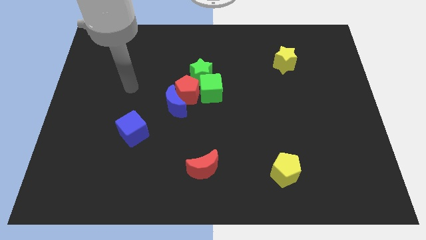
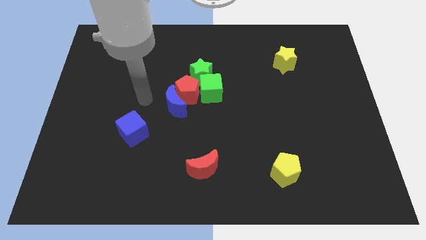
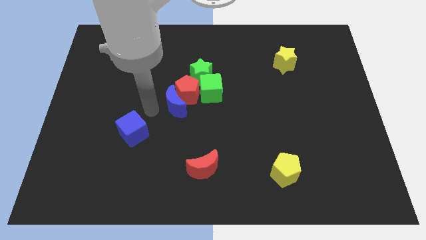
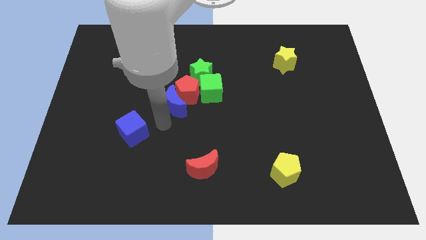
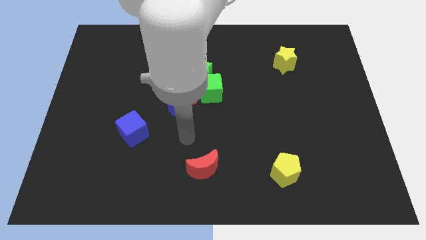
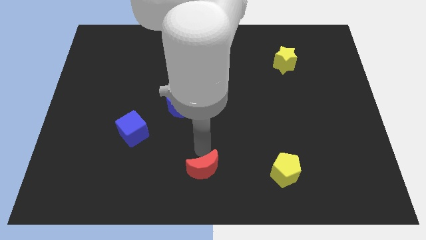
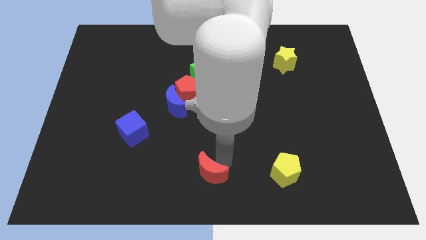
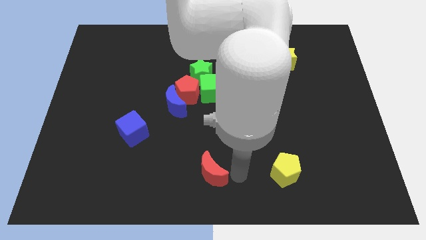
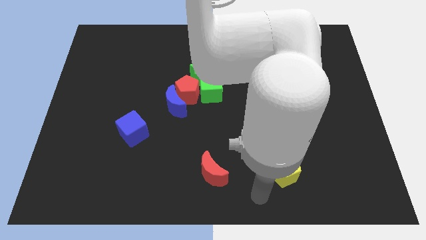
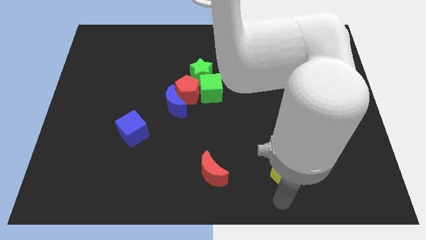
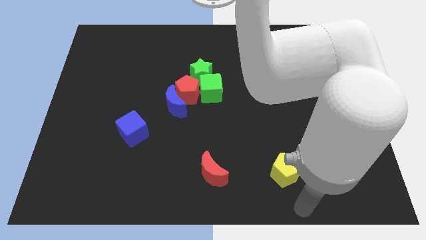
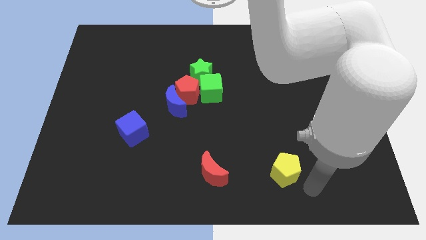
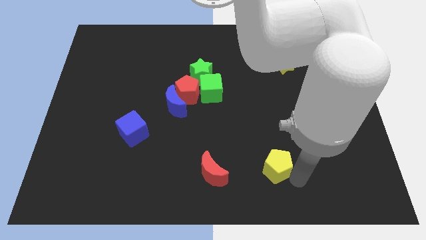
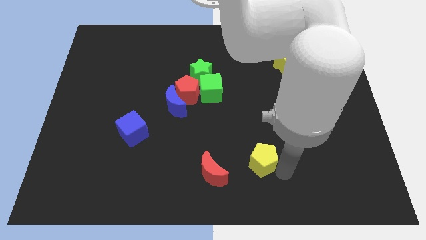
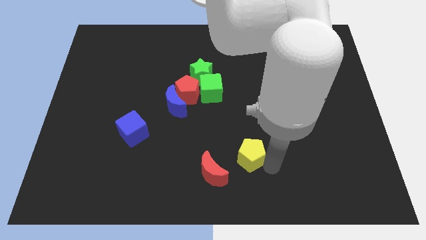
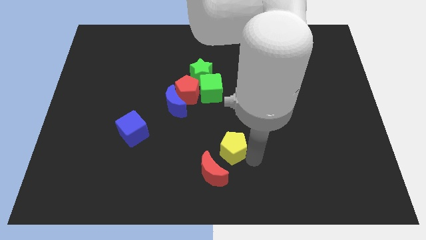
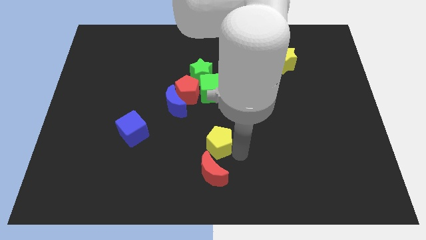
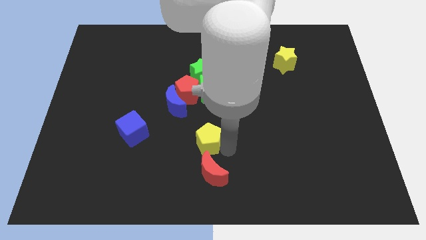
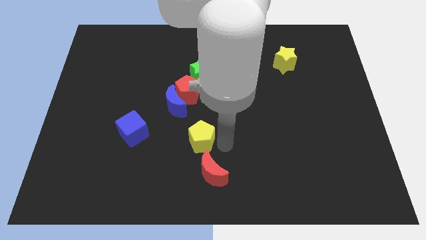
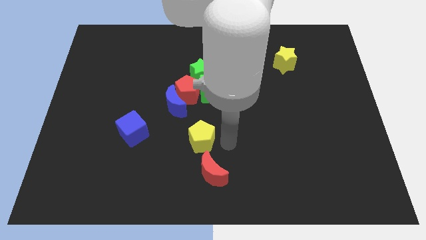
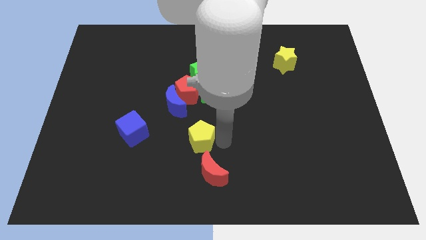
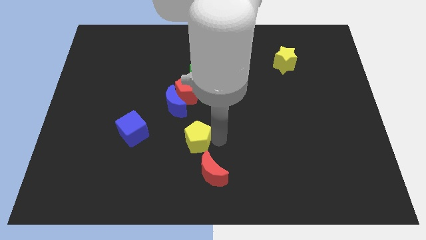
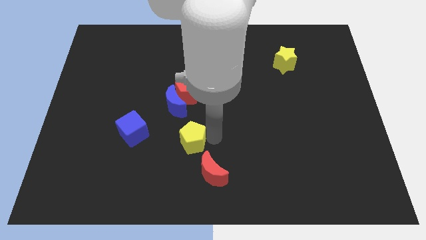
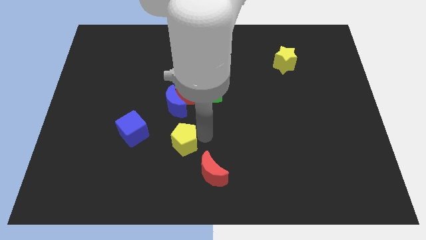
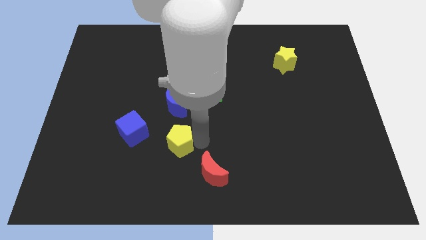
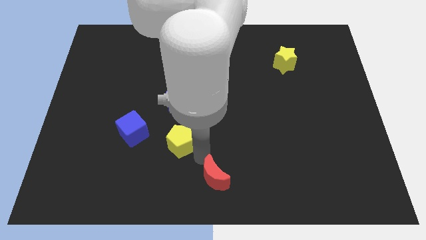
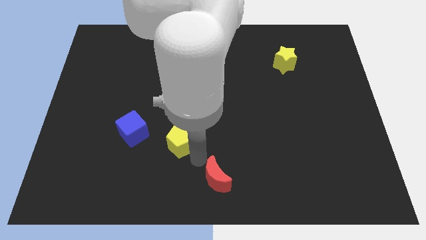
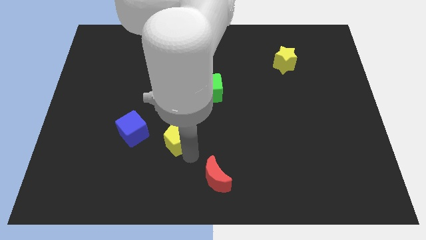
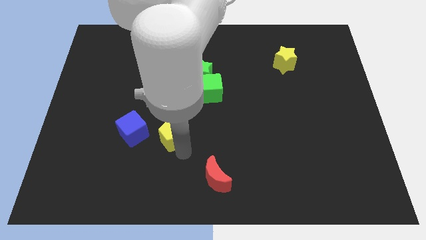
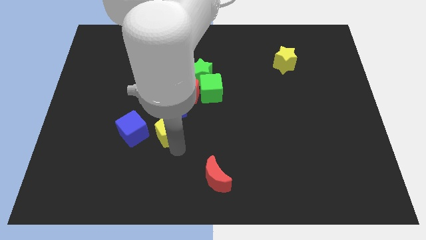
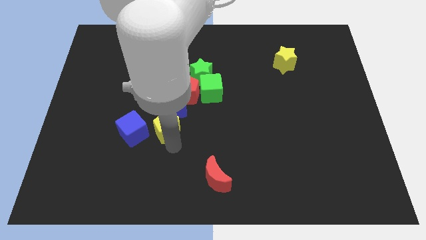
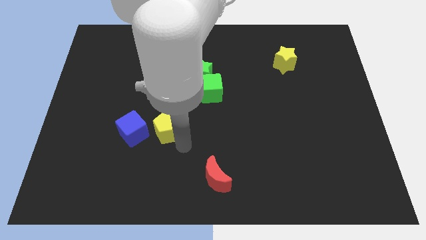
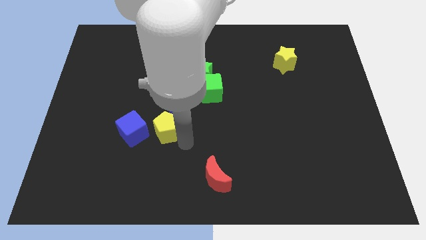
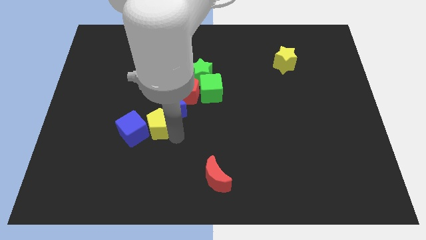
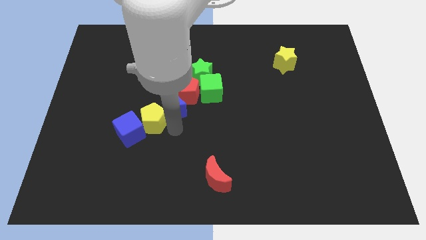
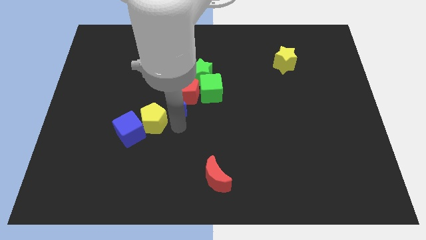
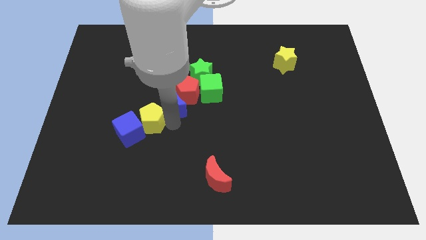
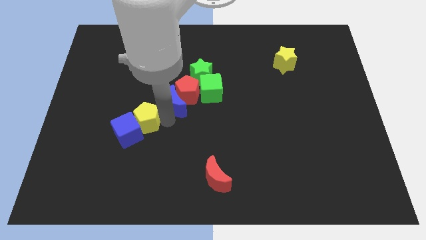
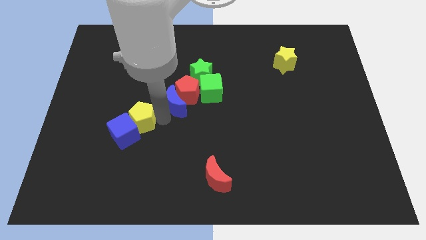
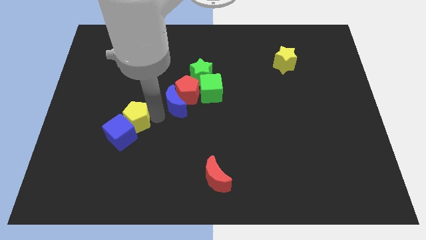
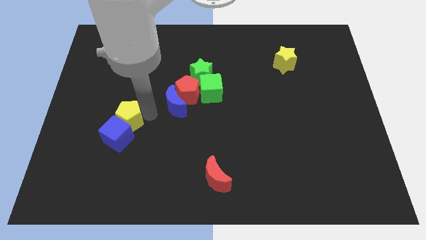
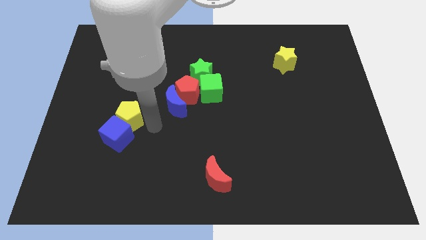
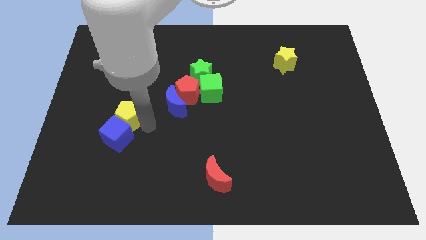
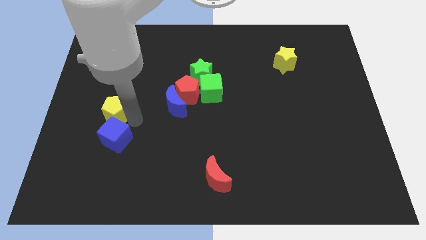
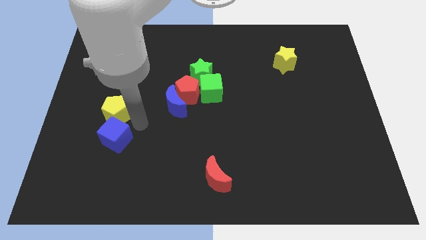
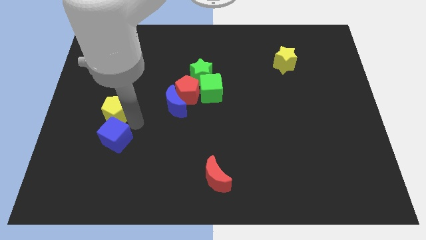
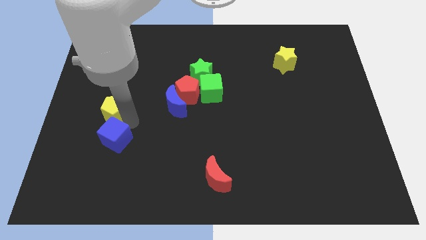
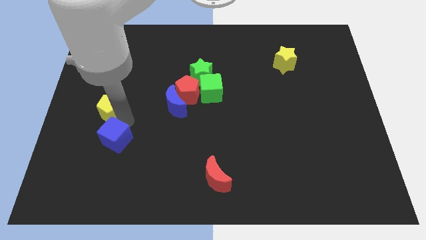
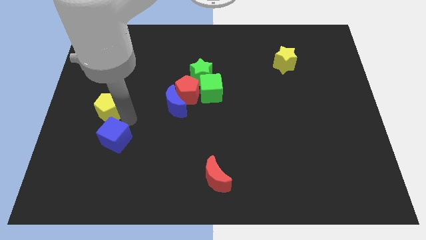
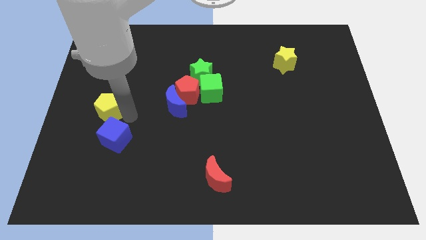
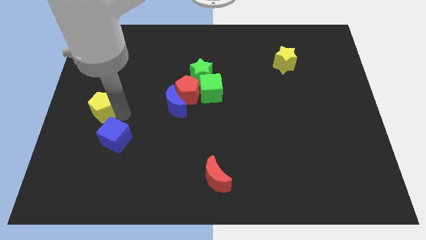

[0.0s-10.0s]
move the yellow pentagon to the center left

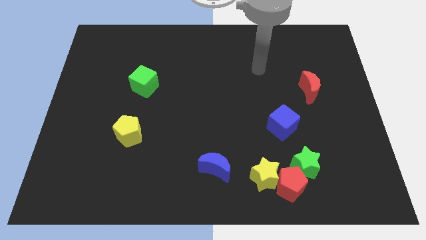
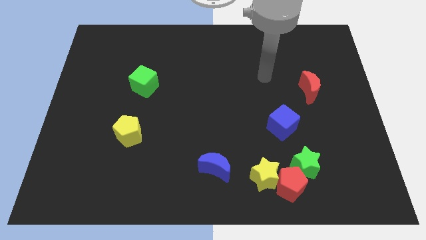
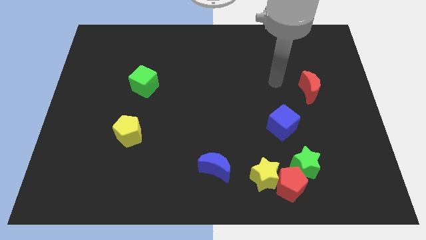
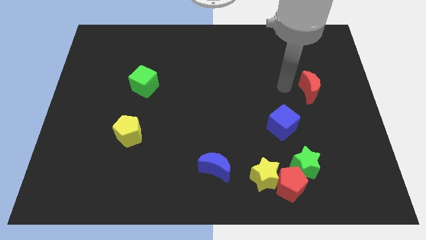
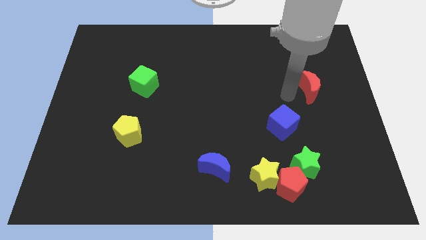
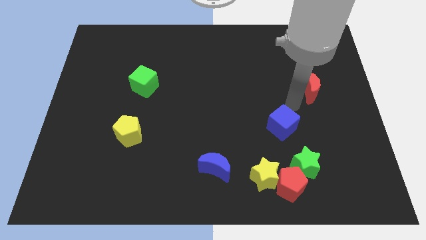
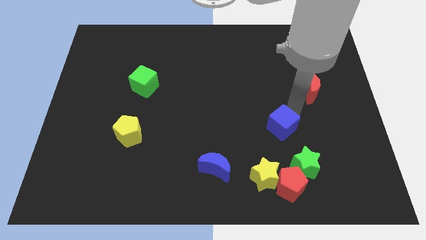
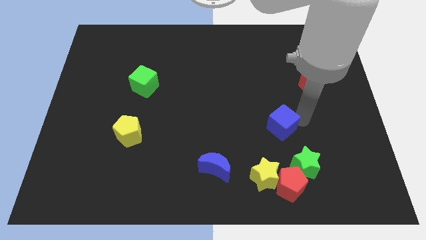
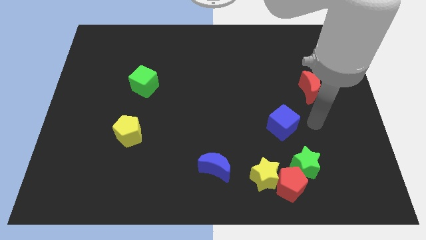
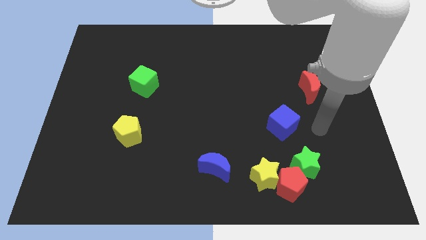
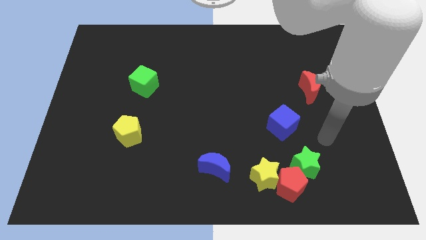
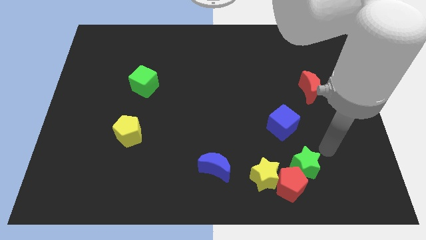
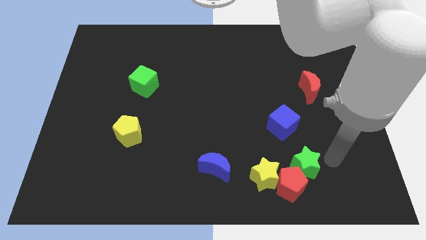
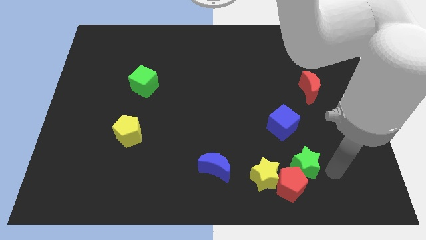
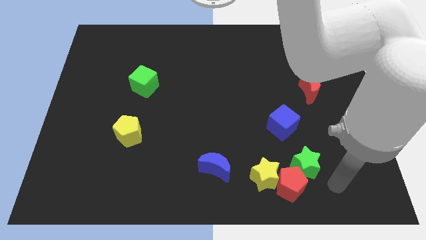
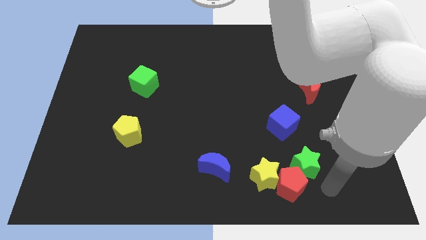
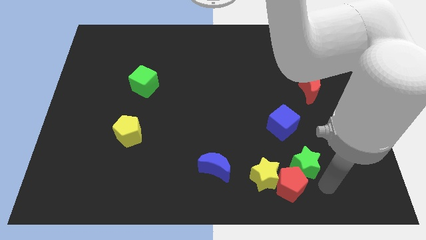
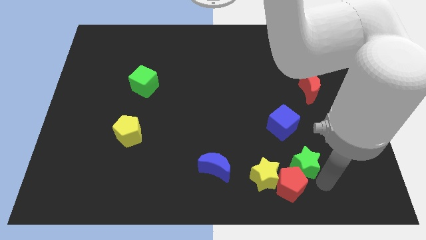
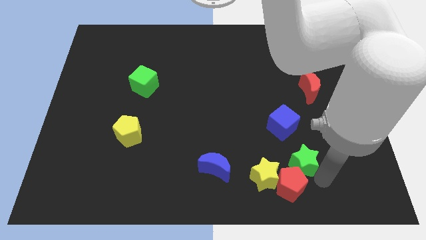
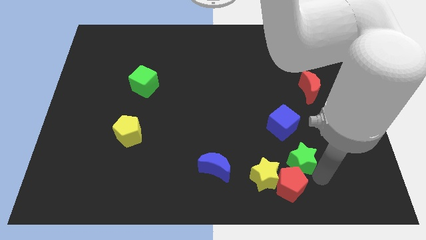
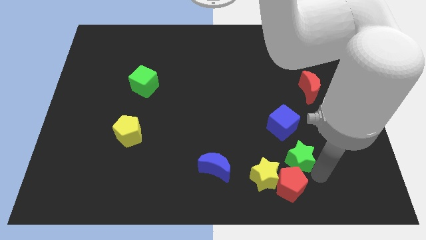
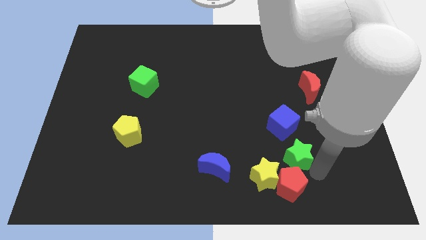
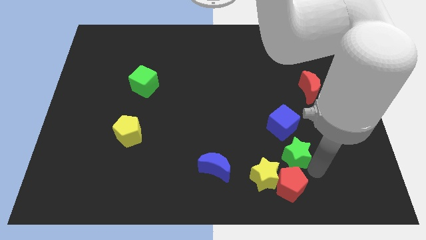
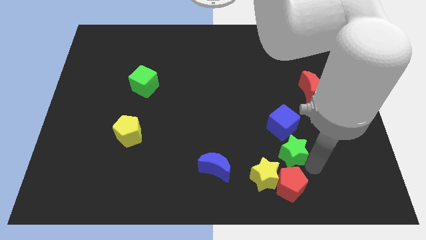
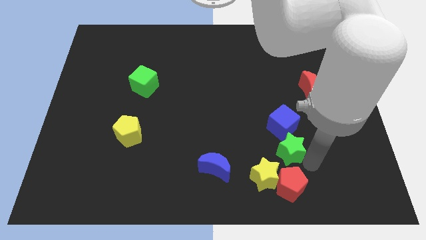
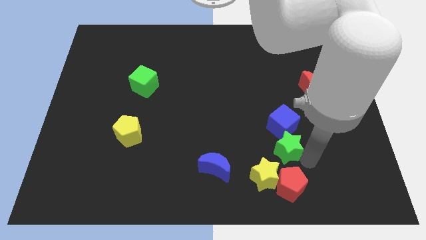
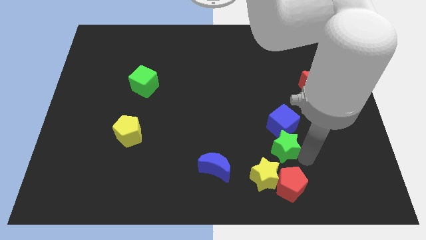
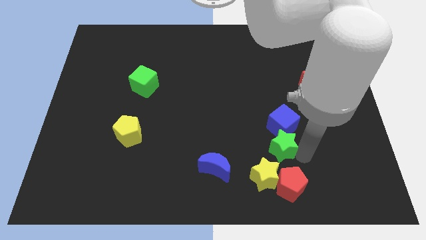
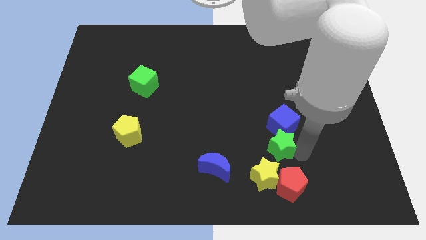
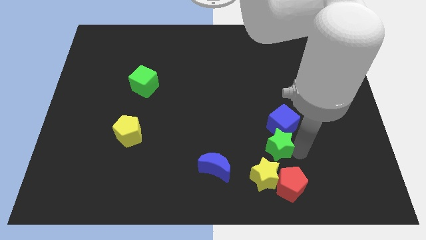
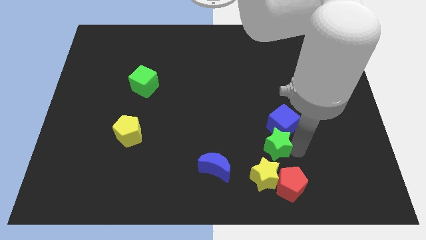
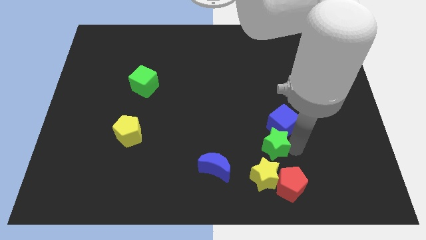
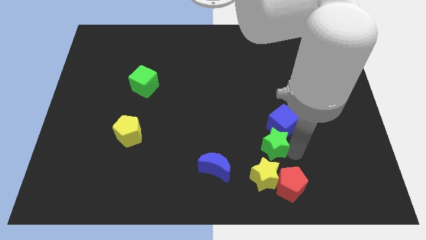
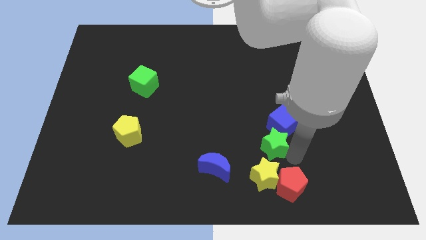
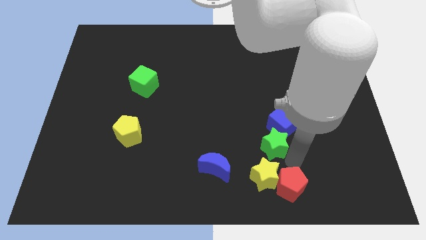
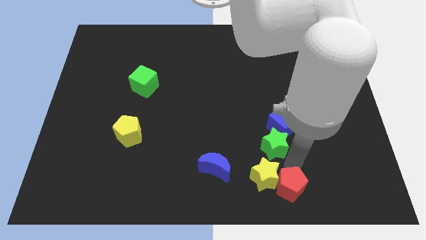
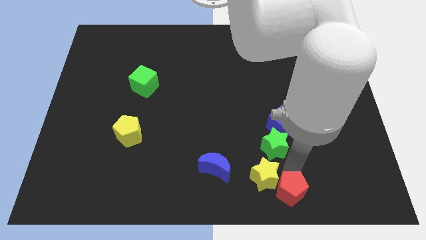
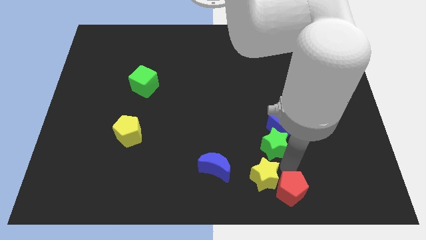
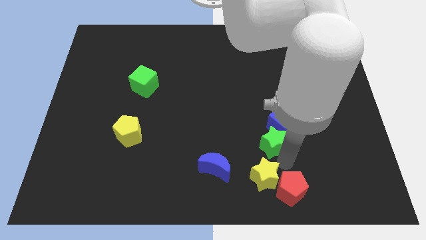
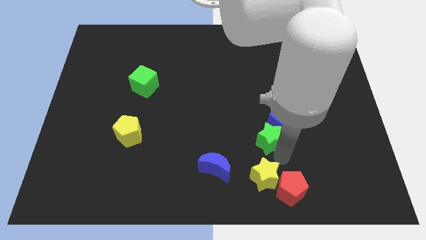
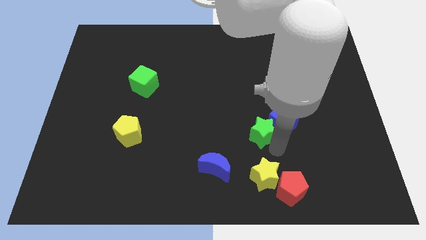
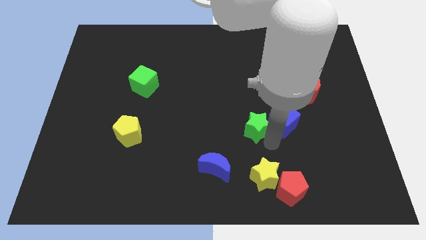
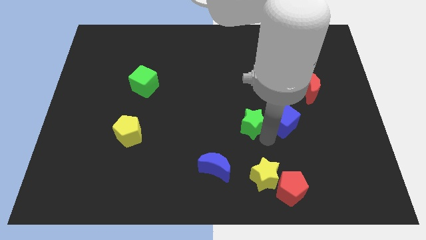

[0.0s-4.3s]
put the green star to the middle of the board
